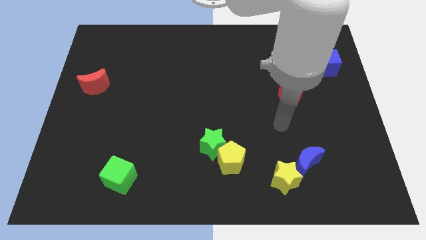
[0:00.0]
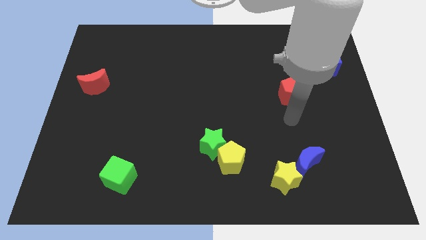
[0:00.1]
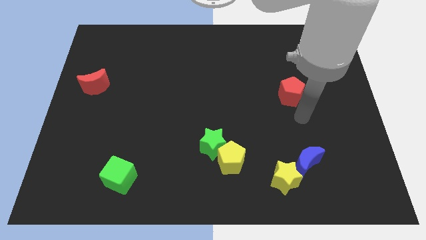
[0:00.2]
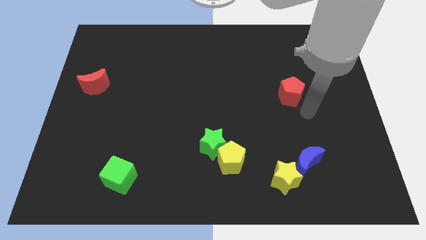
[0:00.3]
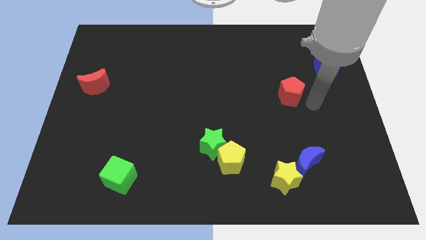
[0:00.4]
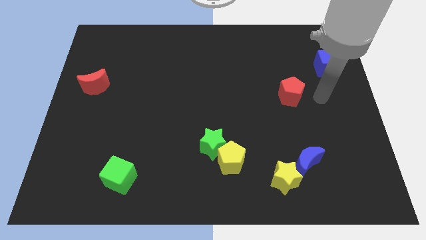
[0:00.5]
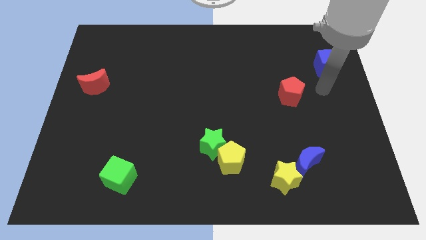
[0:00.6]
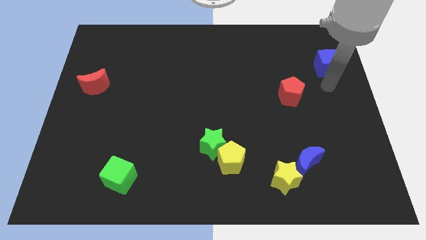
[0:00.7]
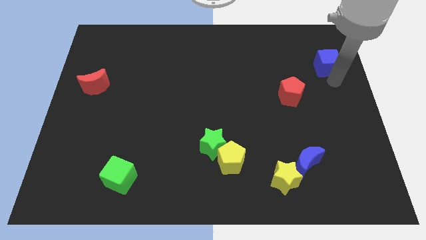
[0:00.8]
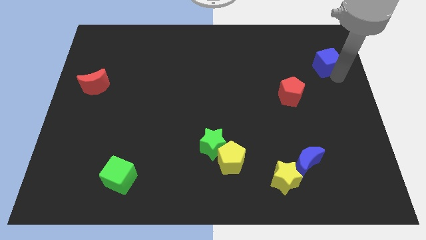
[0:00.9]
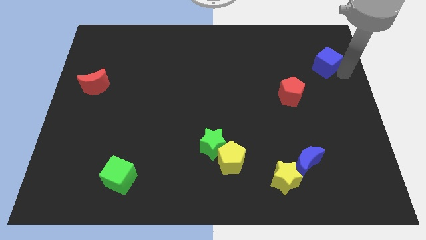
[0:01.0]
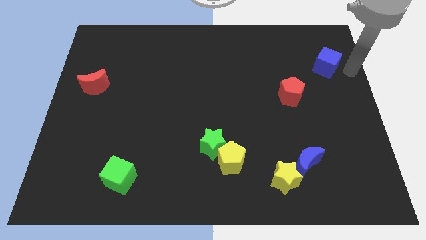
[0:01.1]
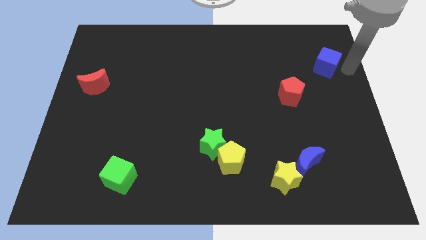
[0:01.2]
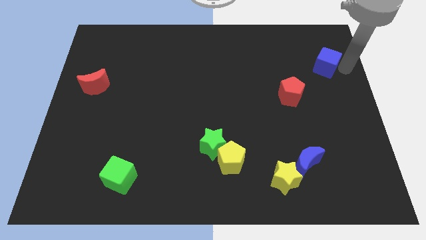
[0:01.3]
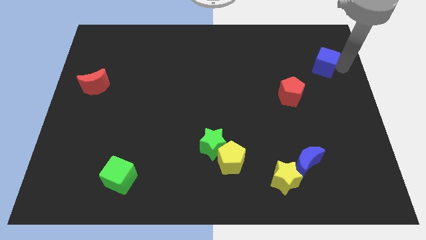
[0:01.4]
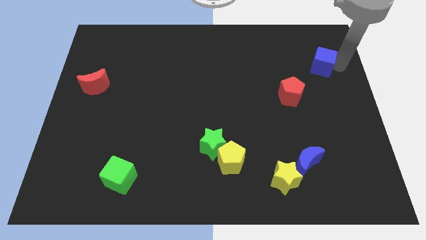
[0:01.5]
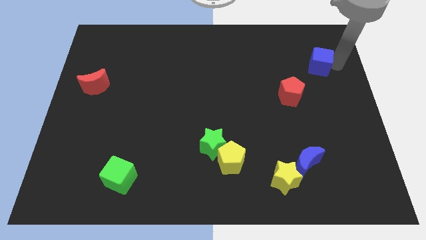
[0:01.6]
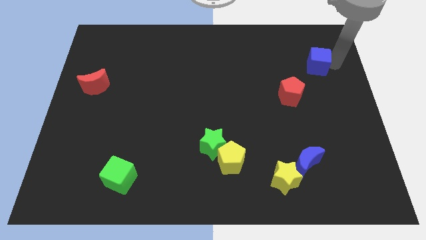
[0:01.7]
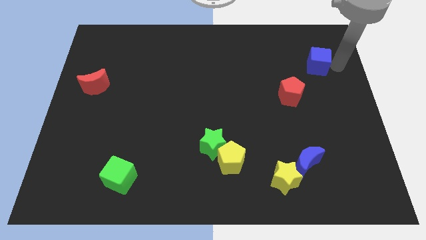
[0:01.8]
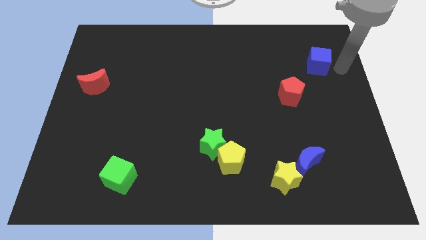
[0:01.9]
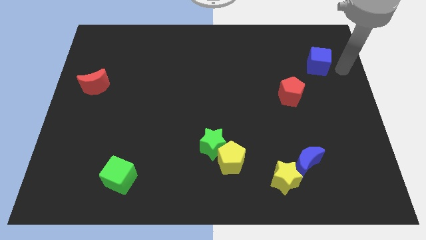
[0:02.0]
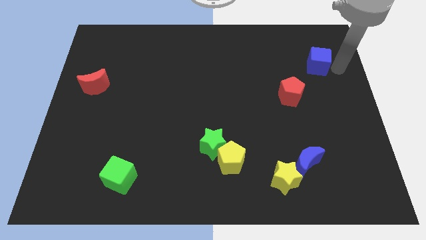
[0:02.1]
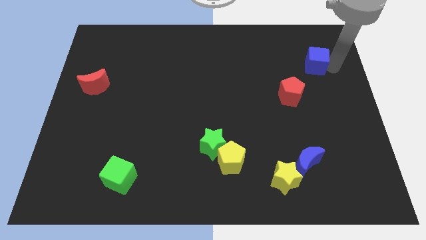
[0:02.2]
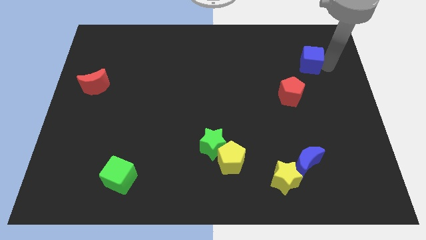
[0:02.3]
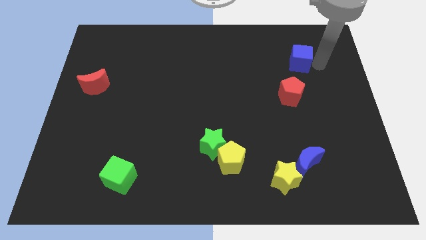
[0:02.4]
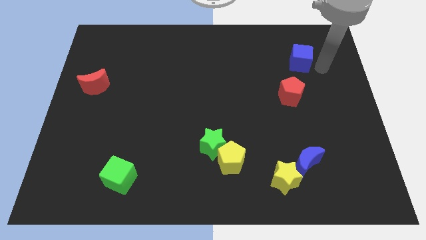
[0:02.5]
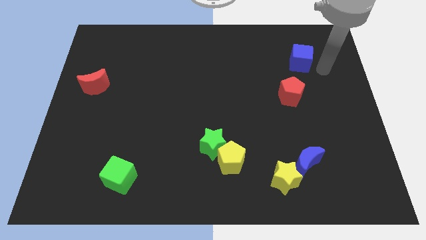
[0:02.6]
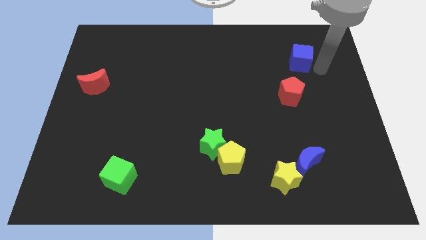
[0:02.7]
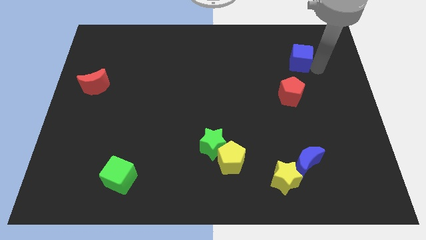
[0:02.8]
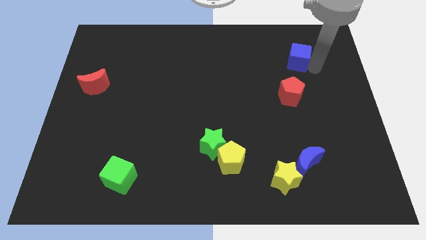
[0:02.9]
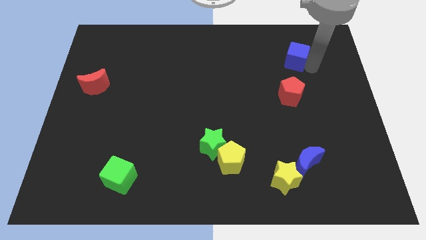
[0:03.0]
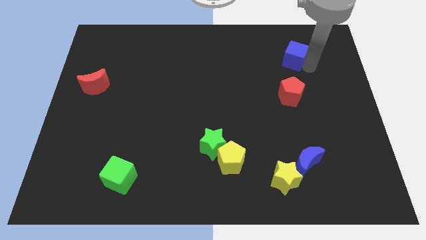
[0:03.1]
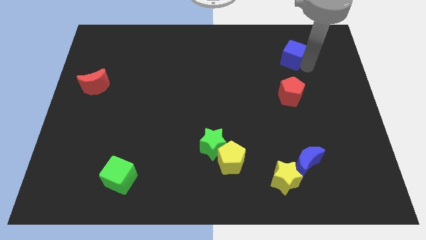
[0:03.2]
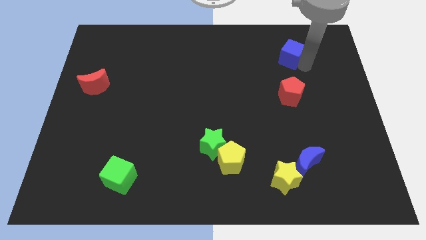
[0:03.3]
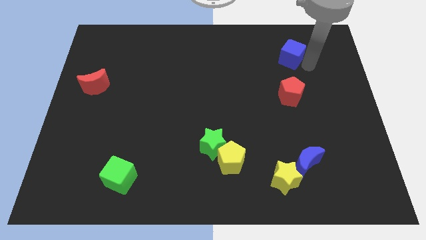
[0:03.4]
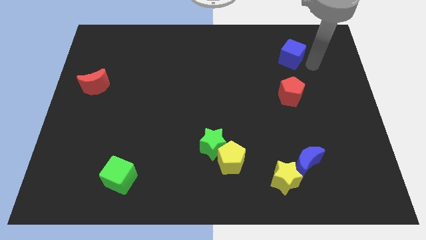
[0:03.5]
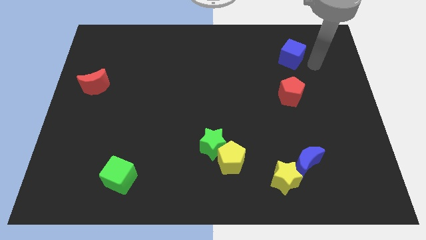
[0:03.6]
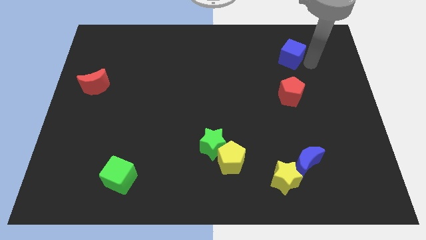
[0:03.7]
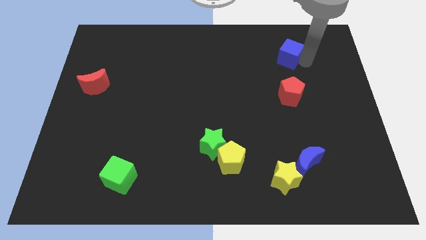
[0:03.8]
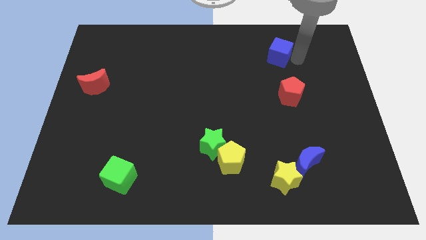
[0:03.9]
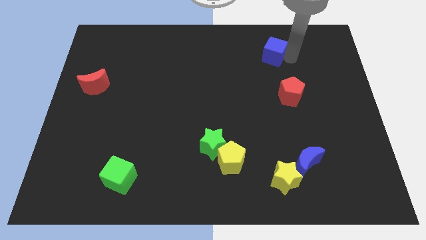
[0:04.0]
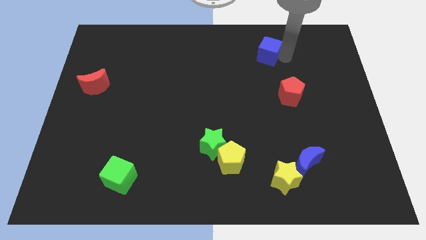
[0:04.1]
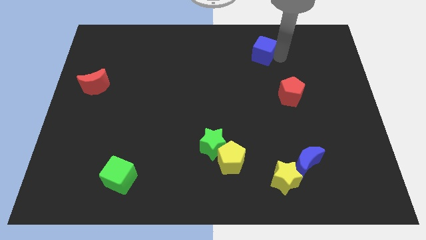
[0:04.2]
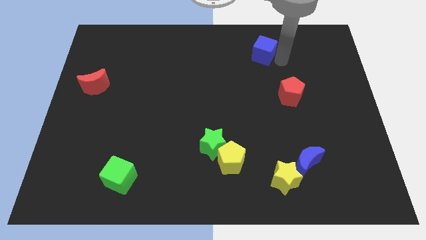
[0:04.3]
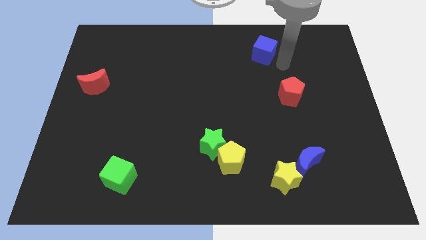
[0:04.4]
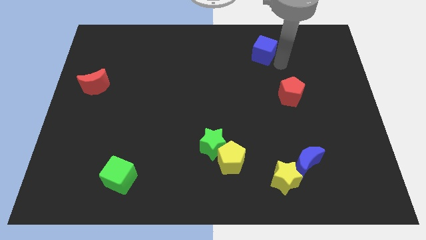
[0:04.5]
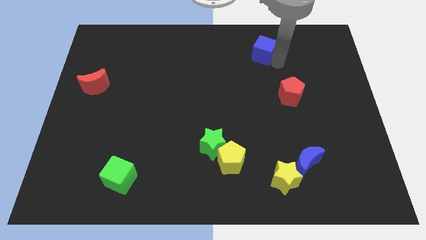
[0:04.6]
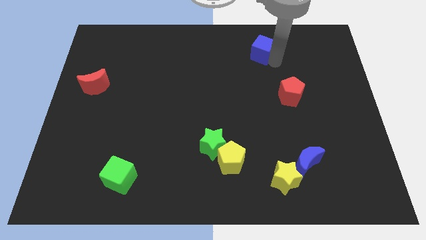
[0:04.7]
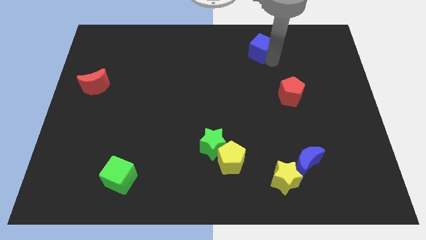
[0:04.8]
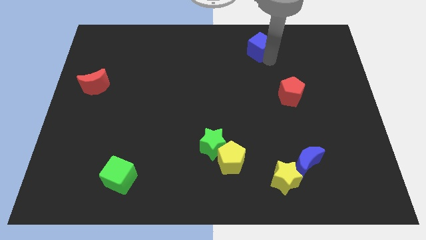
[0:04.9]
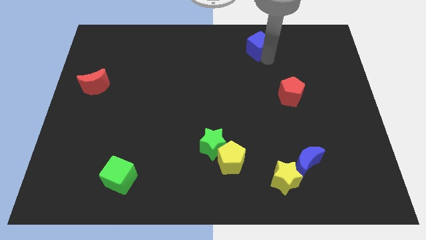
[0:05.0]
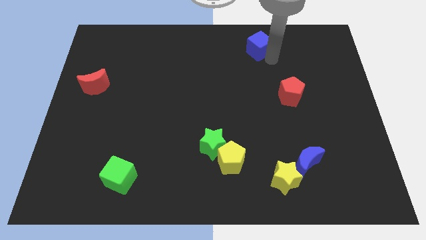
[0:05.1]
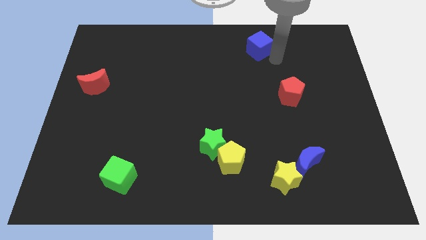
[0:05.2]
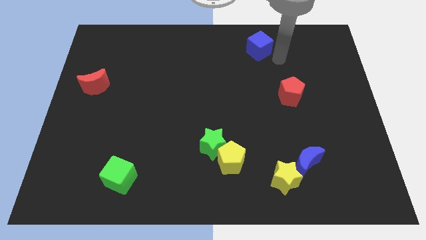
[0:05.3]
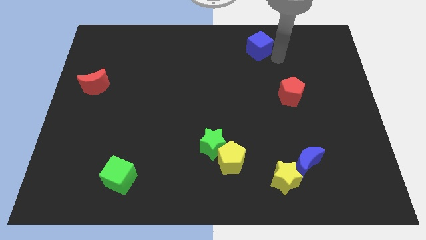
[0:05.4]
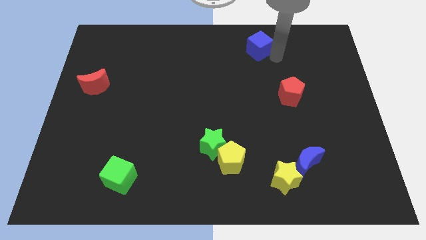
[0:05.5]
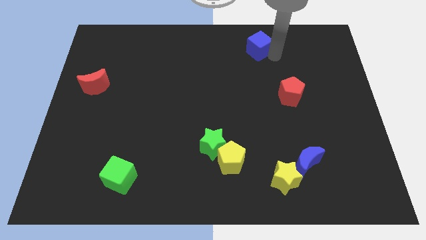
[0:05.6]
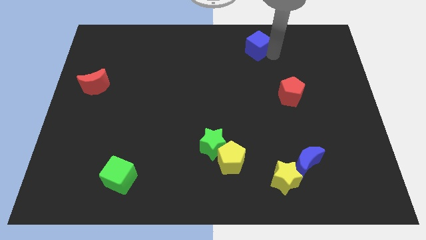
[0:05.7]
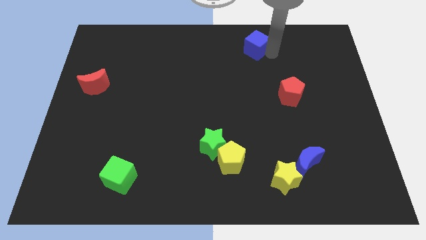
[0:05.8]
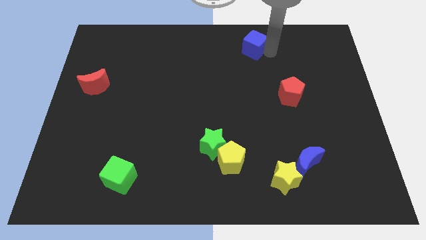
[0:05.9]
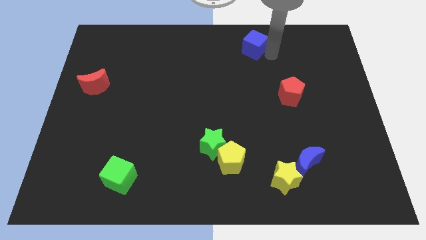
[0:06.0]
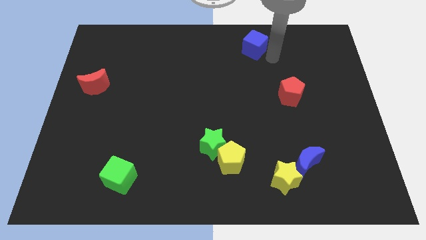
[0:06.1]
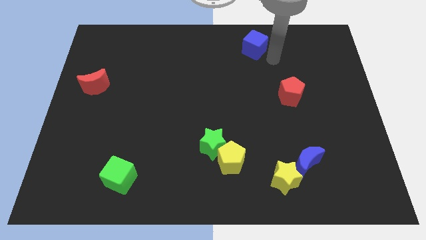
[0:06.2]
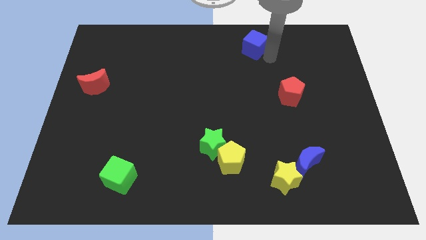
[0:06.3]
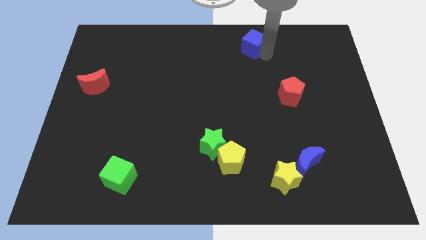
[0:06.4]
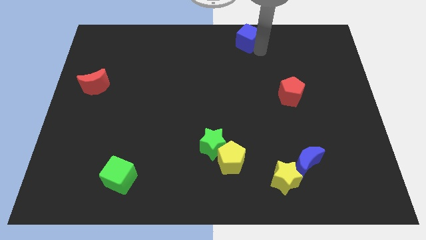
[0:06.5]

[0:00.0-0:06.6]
move the blue cube to the top

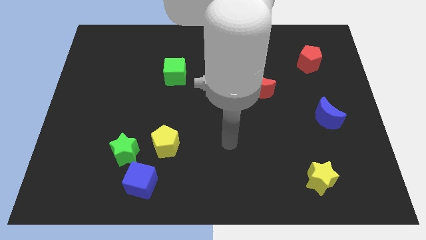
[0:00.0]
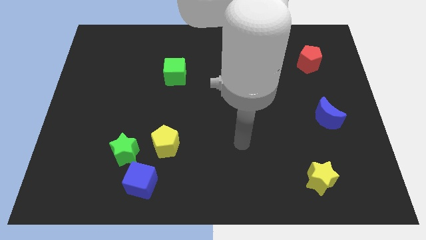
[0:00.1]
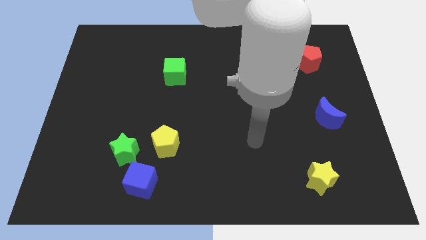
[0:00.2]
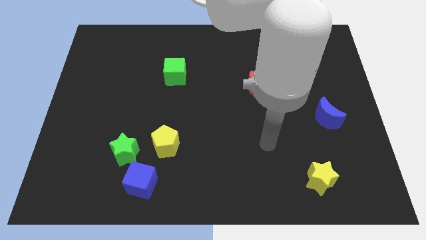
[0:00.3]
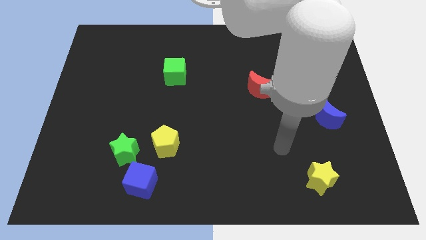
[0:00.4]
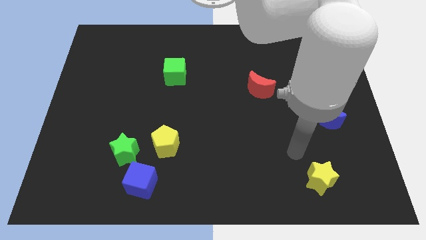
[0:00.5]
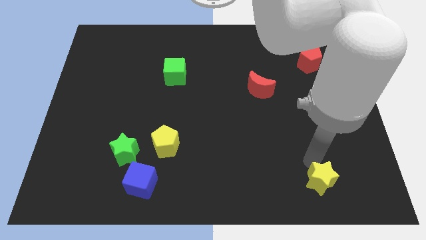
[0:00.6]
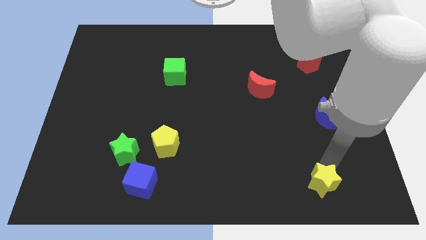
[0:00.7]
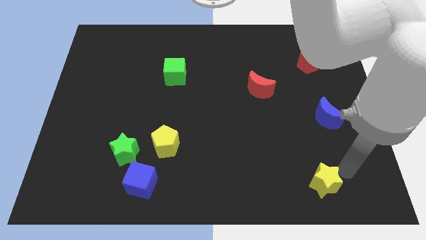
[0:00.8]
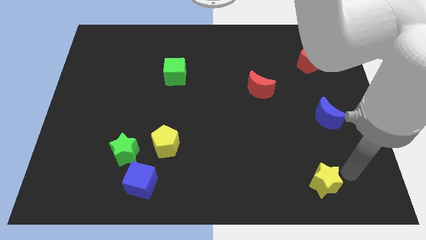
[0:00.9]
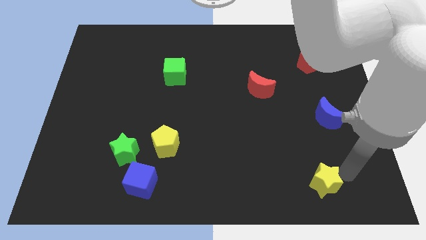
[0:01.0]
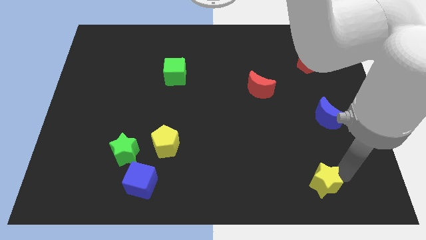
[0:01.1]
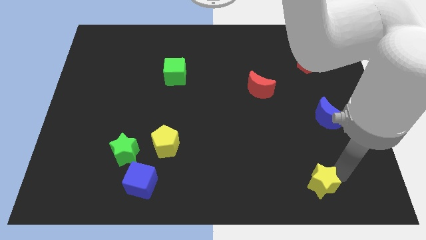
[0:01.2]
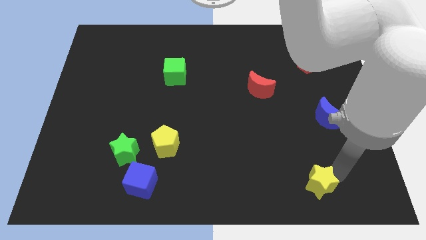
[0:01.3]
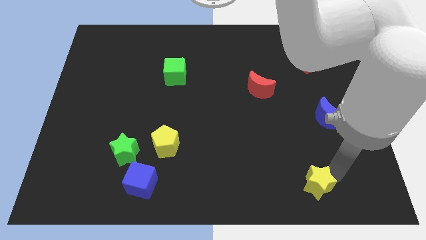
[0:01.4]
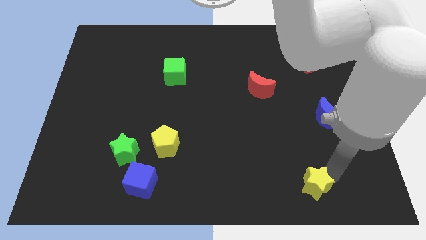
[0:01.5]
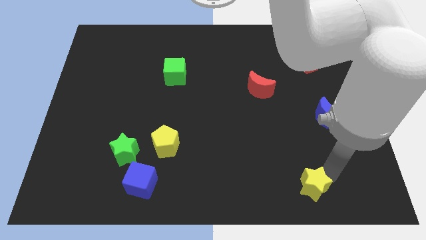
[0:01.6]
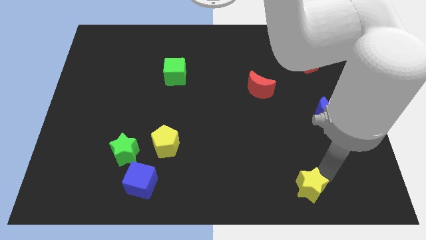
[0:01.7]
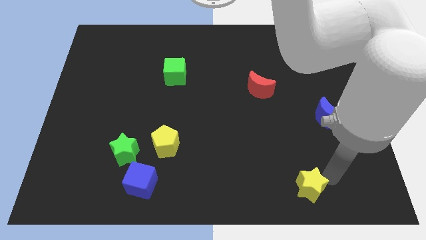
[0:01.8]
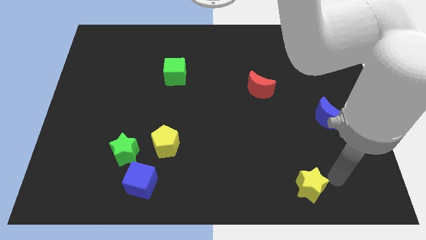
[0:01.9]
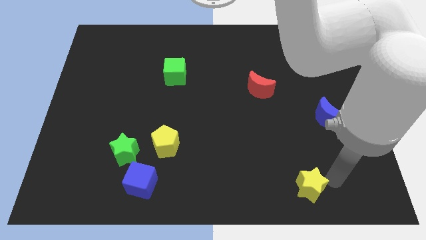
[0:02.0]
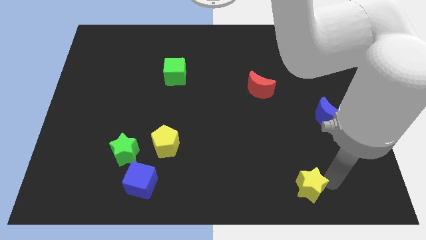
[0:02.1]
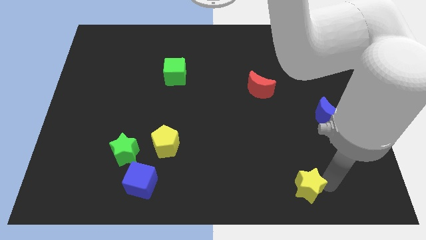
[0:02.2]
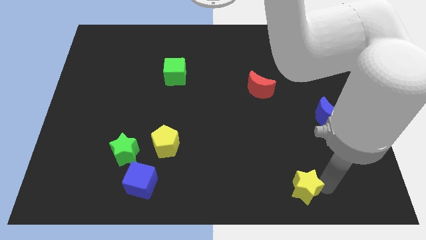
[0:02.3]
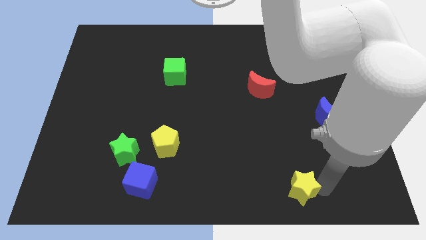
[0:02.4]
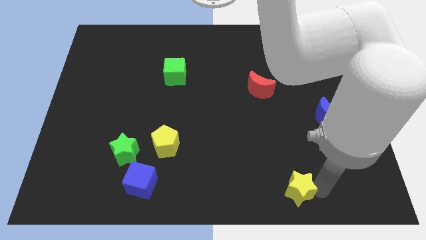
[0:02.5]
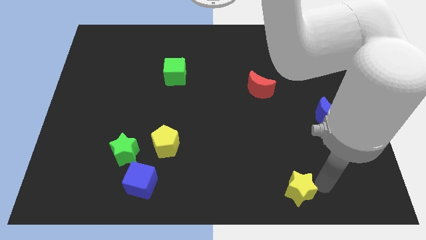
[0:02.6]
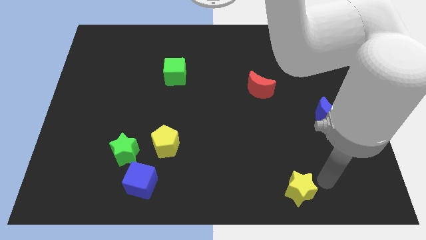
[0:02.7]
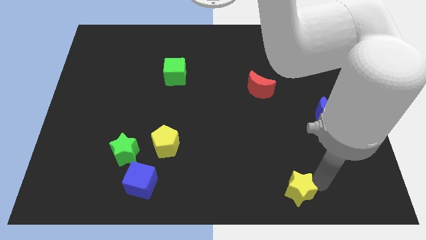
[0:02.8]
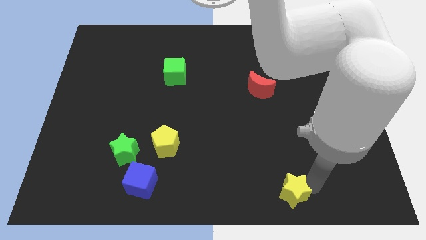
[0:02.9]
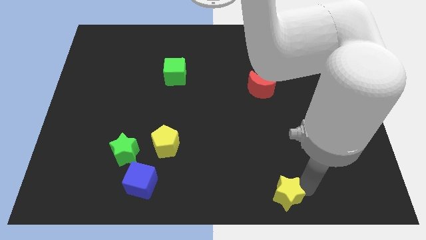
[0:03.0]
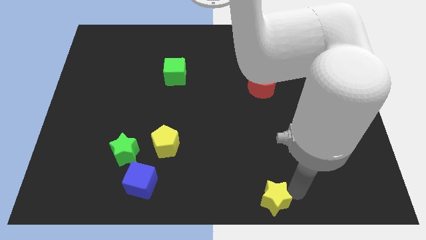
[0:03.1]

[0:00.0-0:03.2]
put the yellow star to the bottom side
